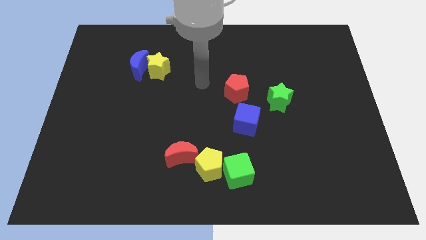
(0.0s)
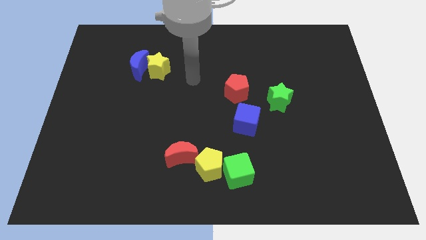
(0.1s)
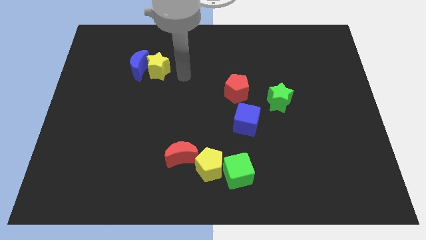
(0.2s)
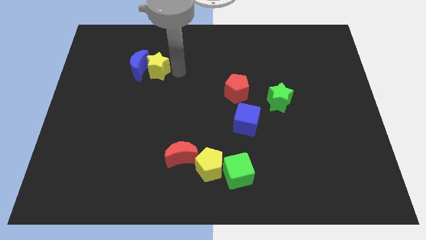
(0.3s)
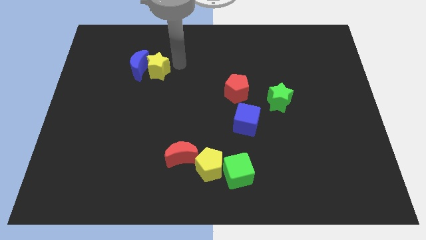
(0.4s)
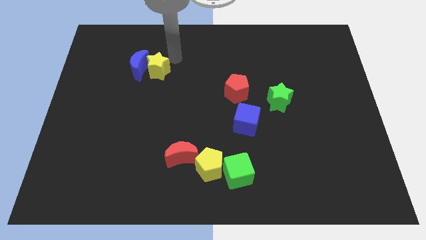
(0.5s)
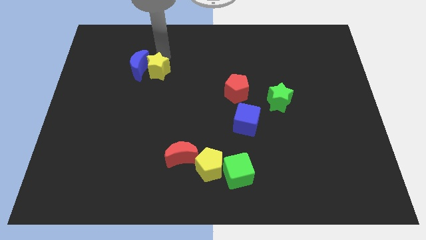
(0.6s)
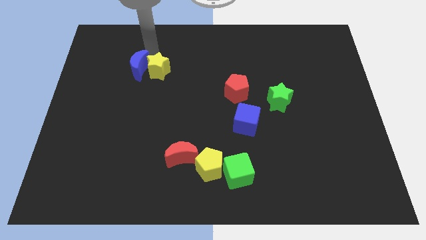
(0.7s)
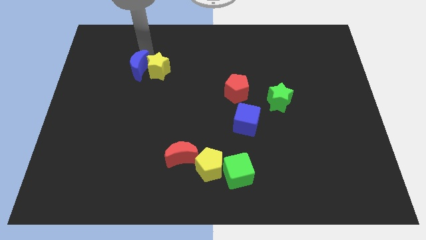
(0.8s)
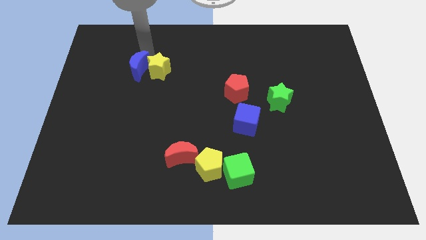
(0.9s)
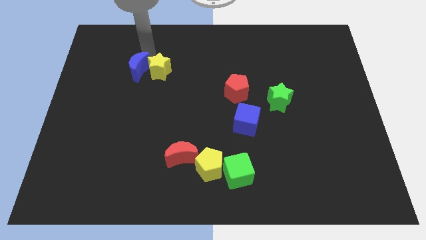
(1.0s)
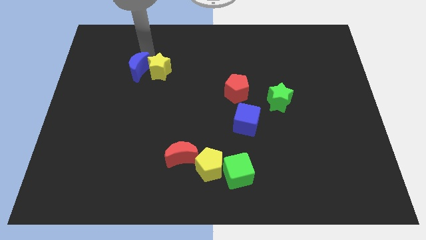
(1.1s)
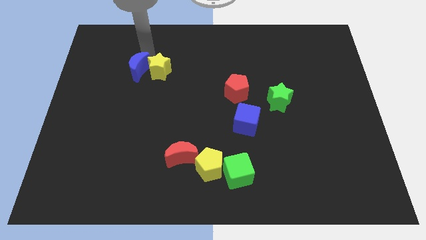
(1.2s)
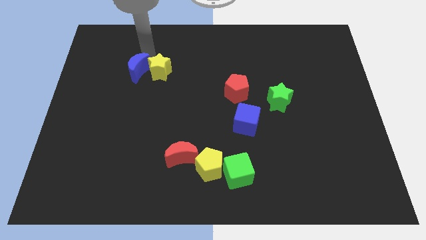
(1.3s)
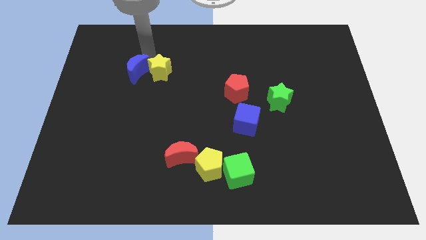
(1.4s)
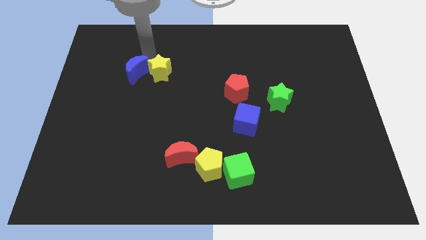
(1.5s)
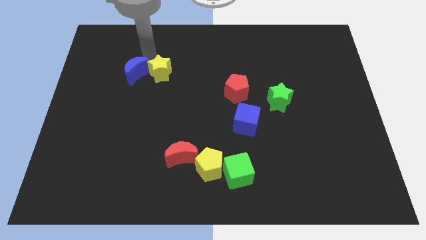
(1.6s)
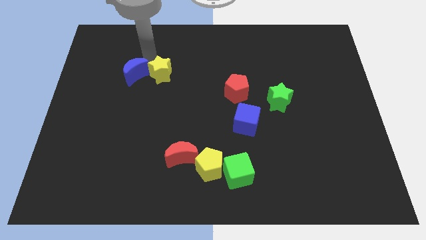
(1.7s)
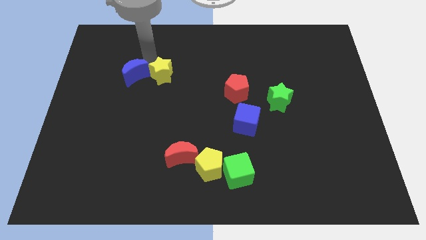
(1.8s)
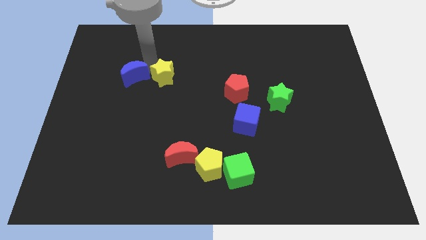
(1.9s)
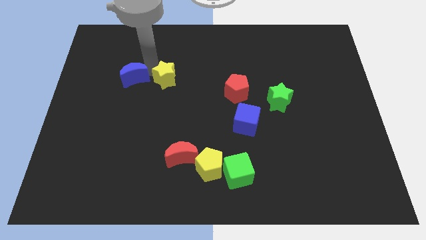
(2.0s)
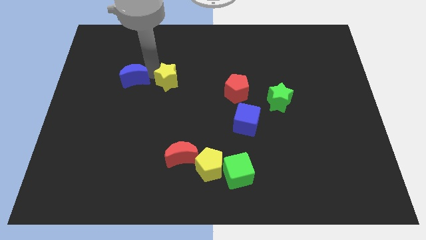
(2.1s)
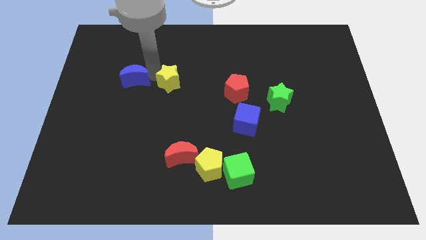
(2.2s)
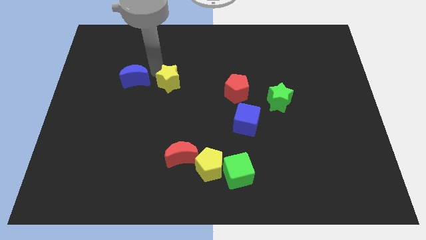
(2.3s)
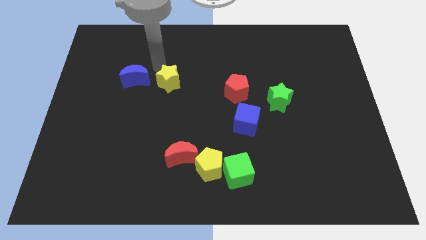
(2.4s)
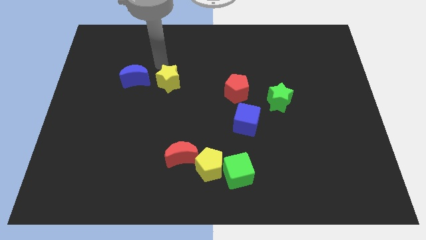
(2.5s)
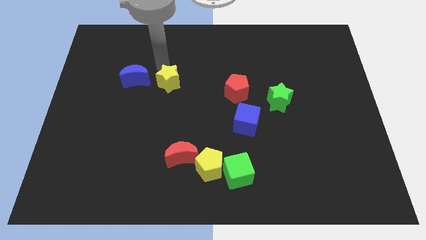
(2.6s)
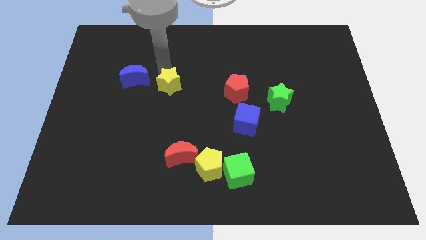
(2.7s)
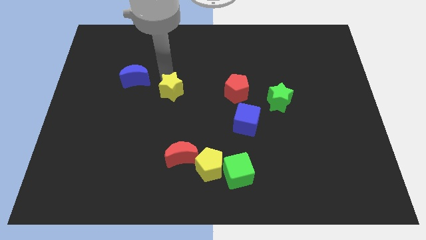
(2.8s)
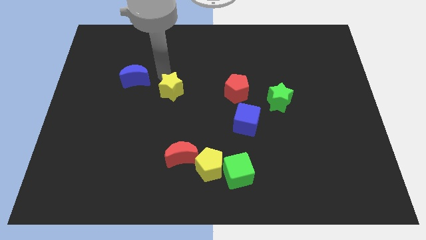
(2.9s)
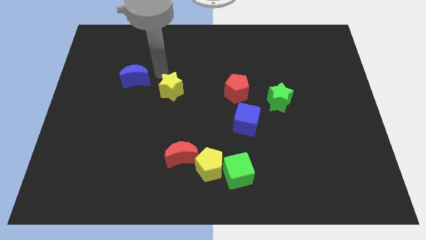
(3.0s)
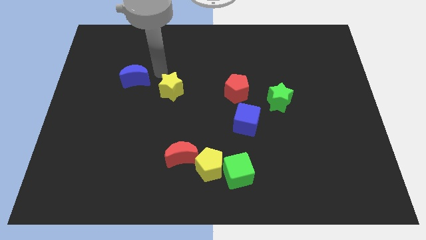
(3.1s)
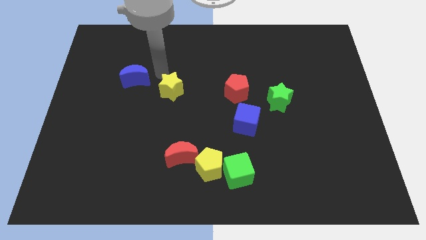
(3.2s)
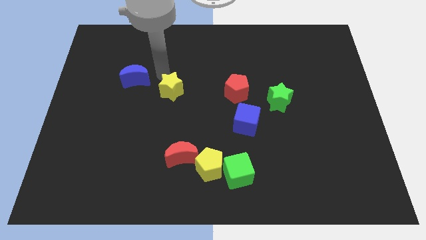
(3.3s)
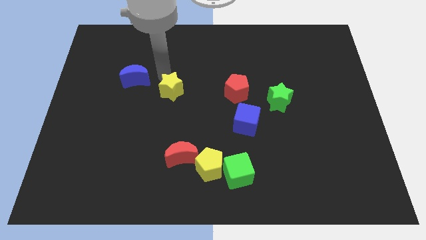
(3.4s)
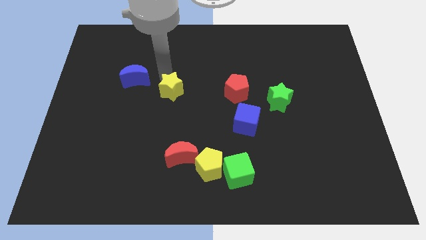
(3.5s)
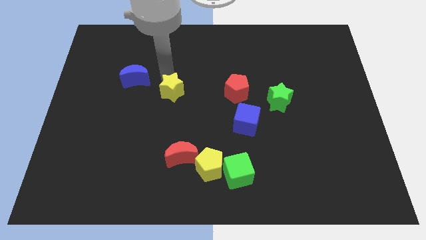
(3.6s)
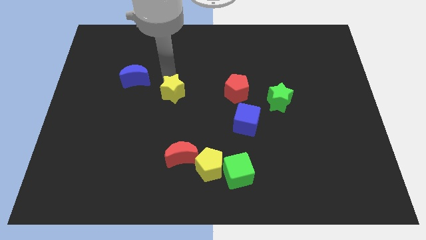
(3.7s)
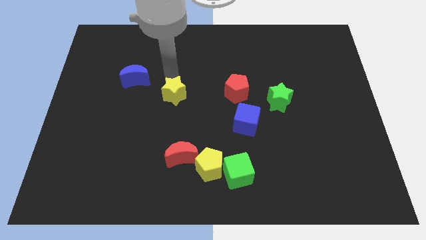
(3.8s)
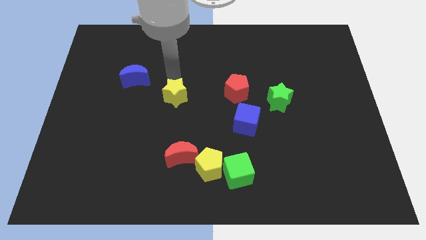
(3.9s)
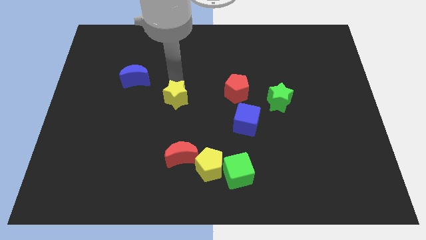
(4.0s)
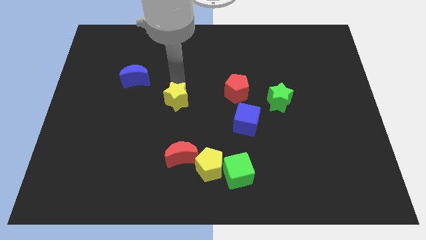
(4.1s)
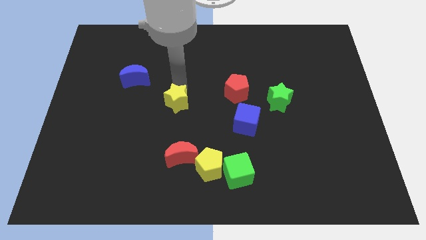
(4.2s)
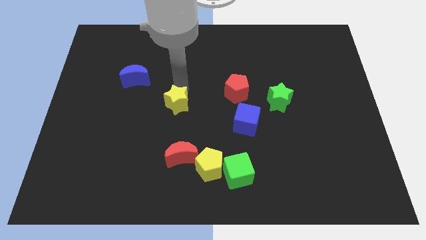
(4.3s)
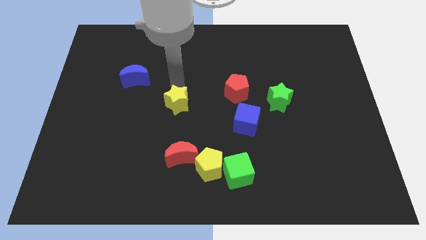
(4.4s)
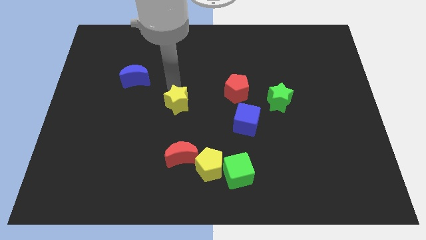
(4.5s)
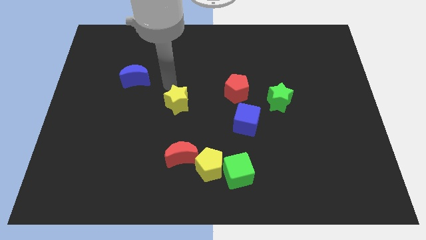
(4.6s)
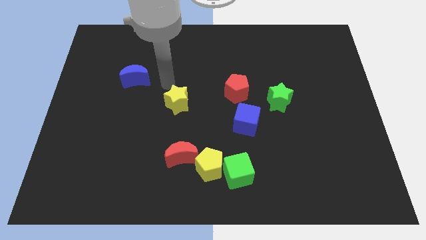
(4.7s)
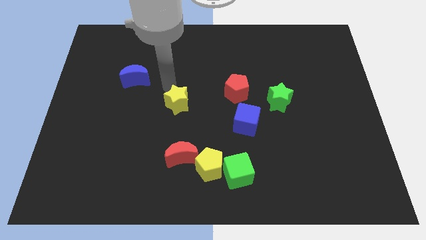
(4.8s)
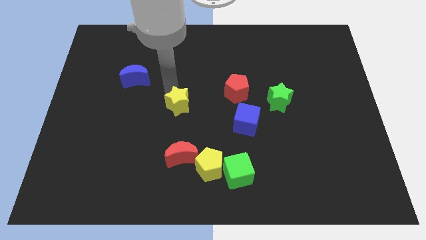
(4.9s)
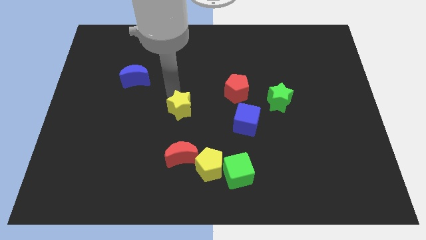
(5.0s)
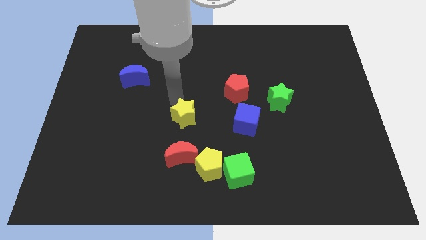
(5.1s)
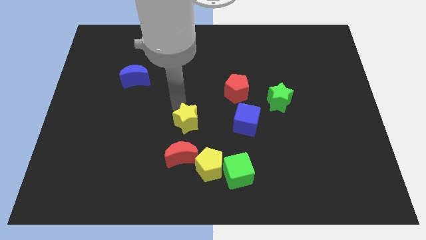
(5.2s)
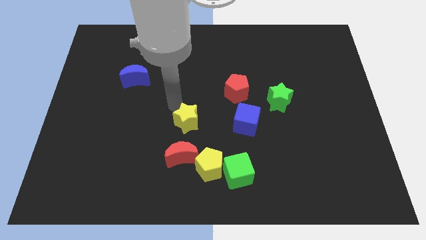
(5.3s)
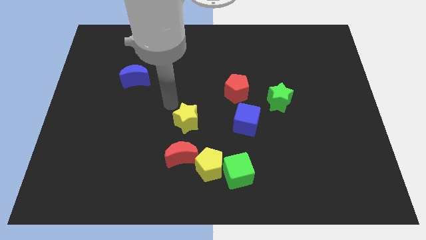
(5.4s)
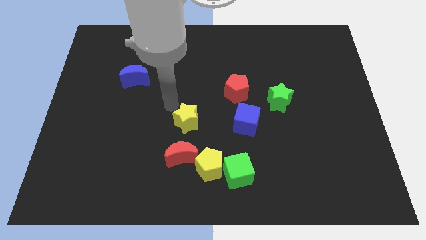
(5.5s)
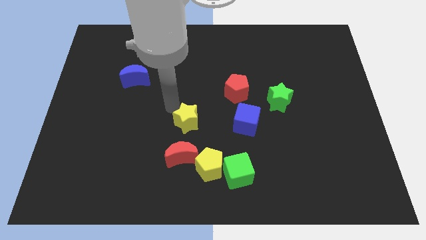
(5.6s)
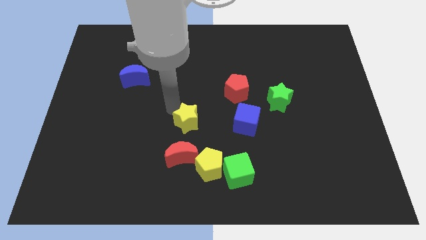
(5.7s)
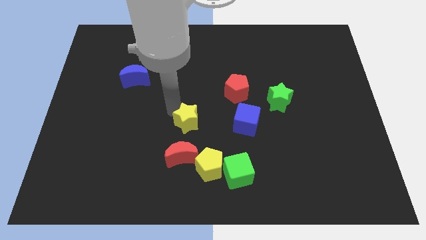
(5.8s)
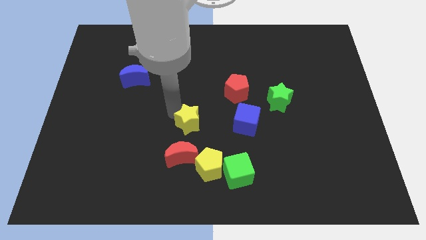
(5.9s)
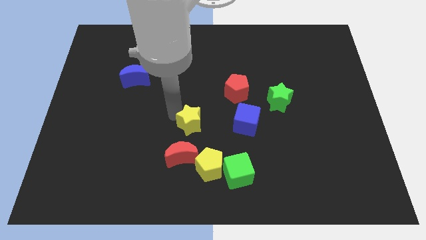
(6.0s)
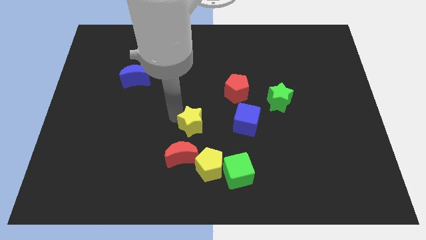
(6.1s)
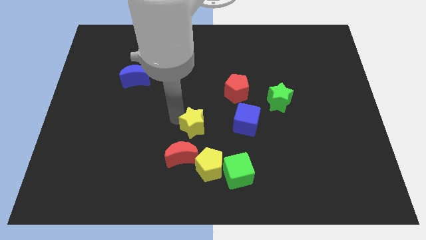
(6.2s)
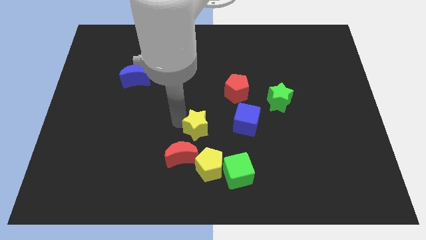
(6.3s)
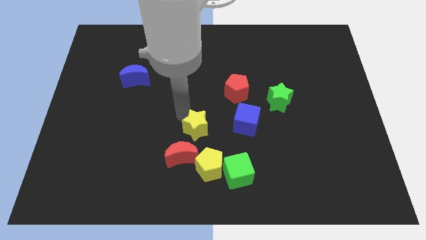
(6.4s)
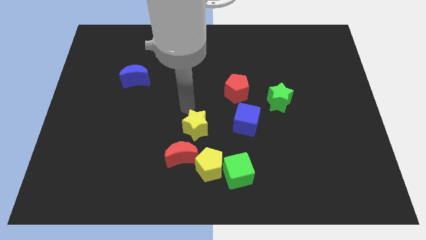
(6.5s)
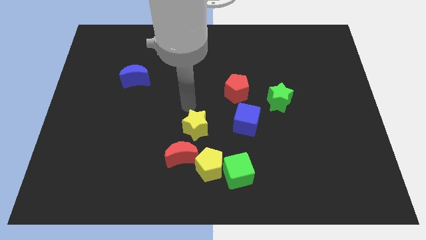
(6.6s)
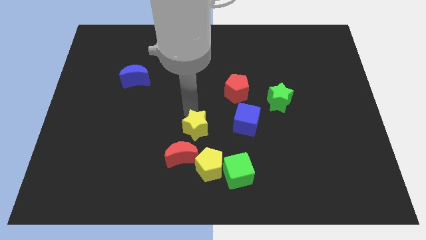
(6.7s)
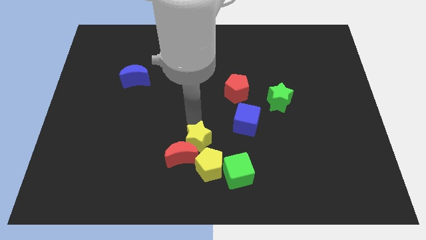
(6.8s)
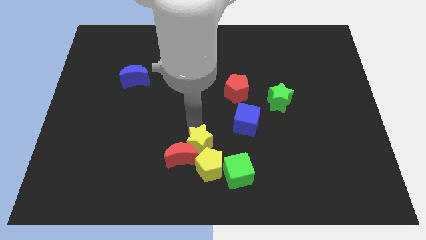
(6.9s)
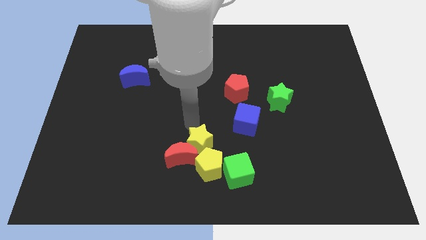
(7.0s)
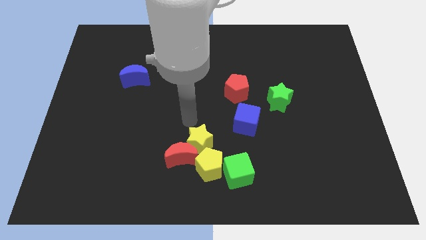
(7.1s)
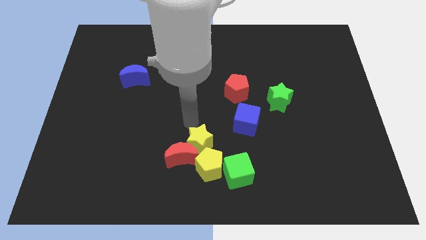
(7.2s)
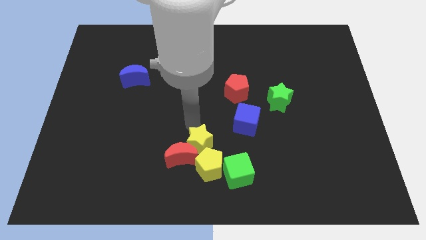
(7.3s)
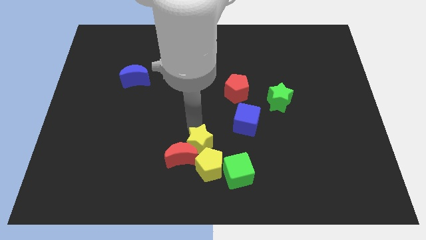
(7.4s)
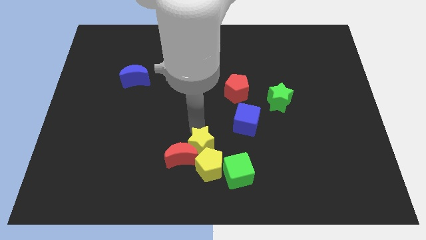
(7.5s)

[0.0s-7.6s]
move the yellow star towards the yellow pentagon

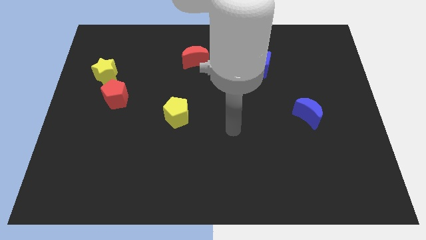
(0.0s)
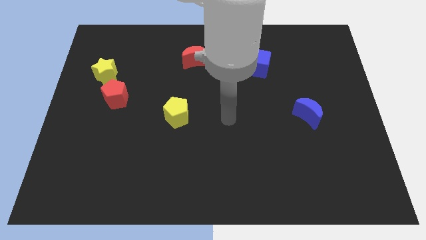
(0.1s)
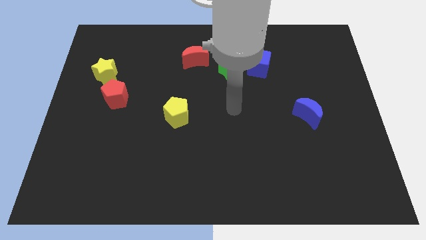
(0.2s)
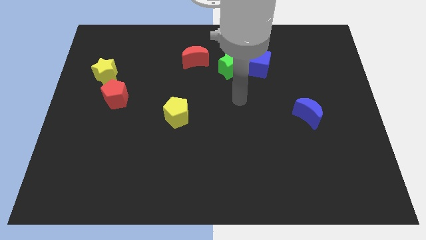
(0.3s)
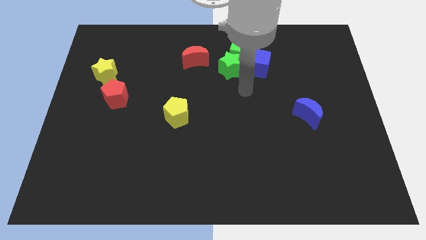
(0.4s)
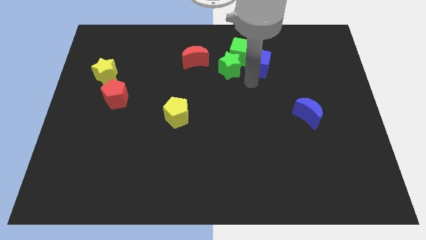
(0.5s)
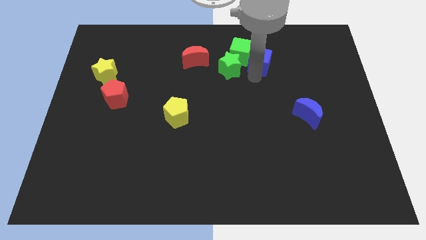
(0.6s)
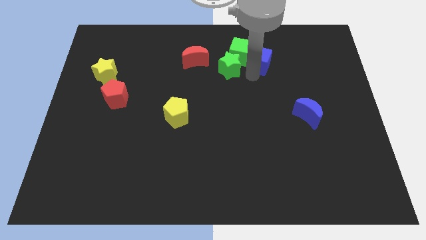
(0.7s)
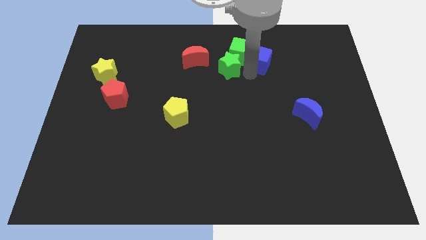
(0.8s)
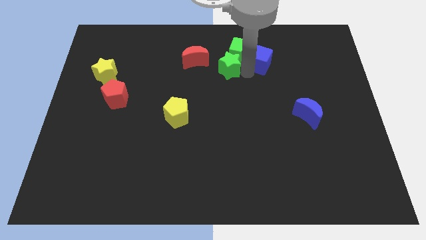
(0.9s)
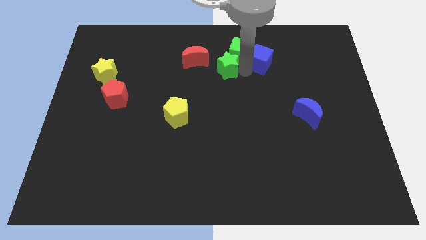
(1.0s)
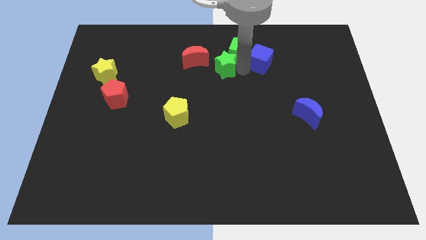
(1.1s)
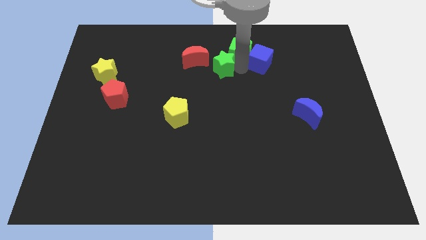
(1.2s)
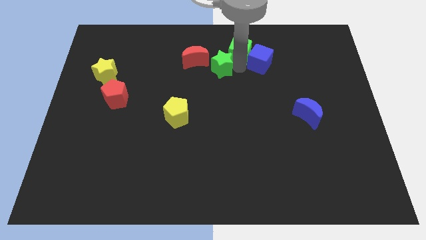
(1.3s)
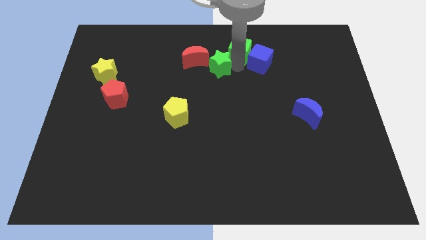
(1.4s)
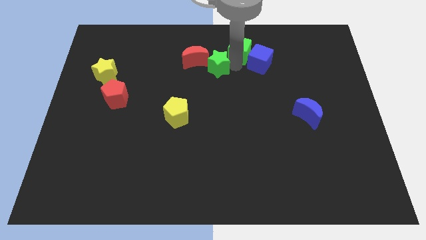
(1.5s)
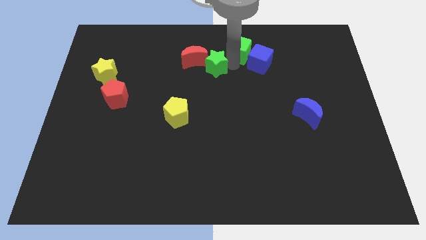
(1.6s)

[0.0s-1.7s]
put the green star to the red moon
